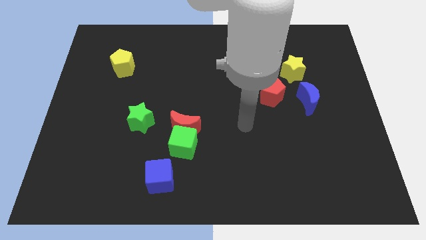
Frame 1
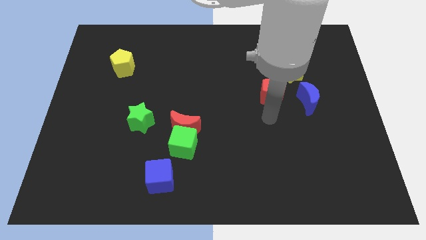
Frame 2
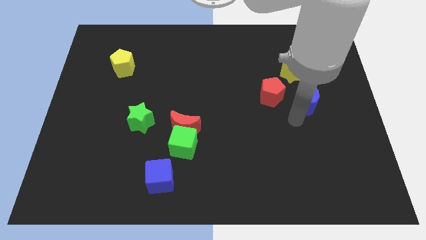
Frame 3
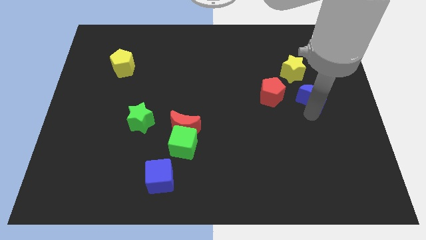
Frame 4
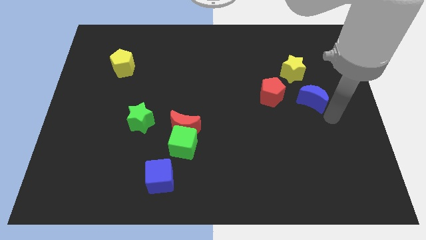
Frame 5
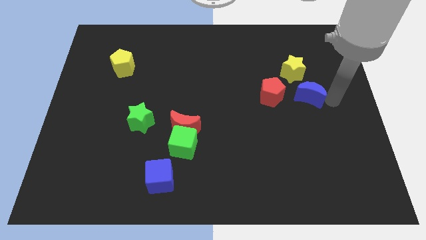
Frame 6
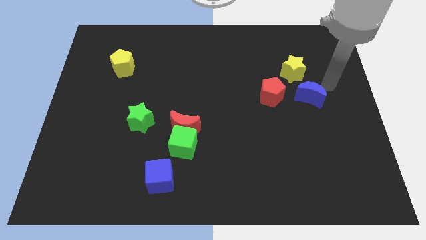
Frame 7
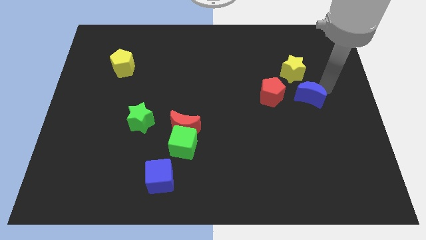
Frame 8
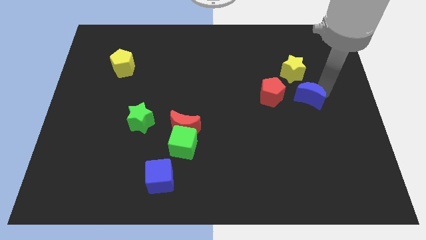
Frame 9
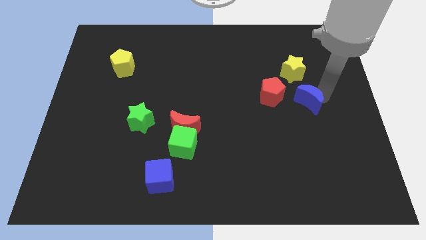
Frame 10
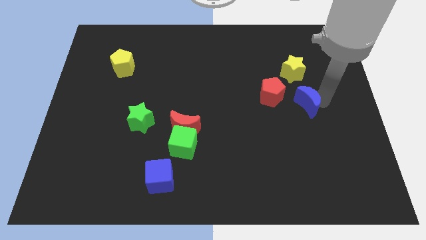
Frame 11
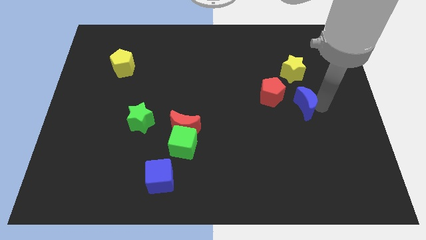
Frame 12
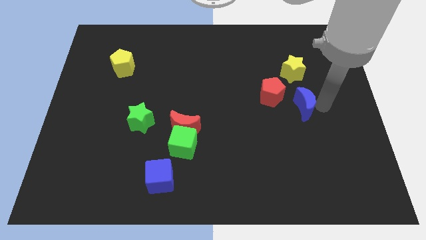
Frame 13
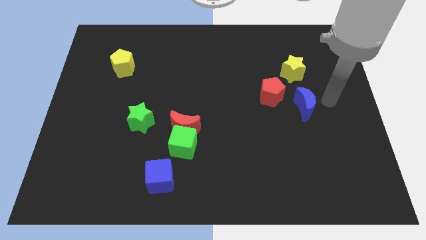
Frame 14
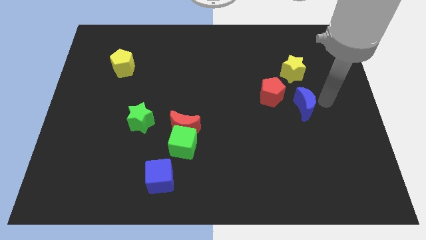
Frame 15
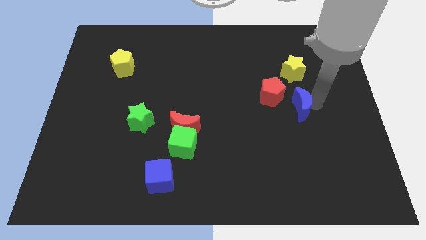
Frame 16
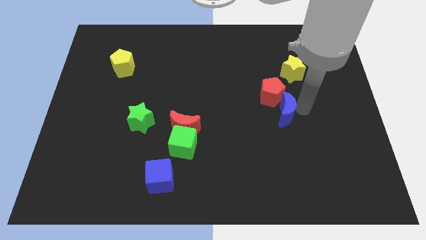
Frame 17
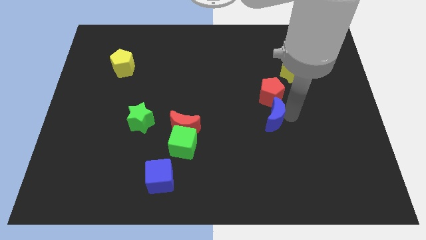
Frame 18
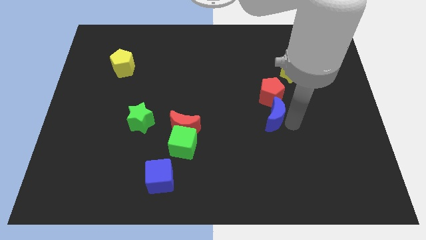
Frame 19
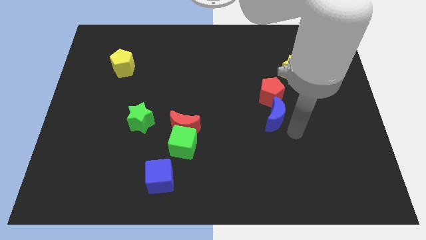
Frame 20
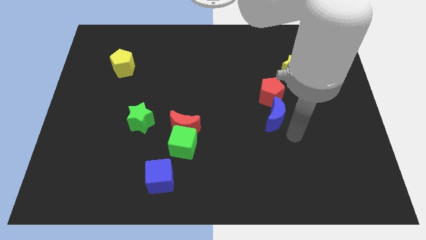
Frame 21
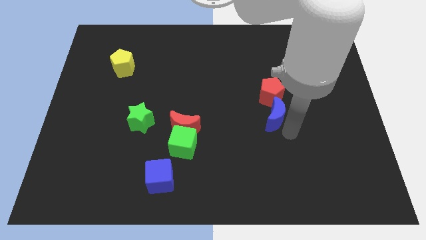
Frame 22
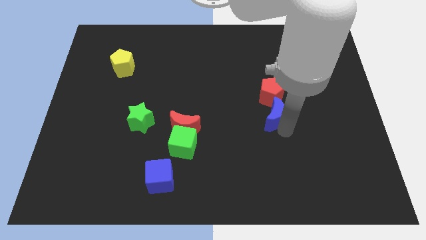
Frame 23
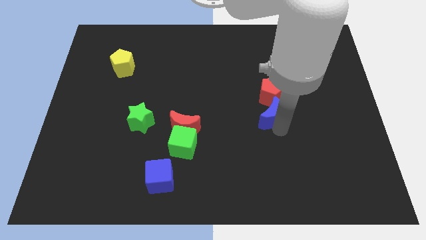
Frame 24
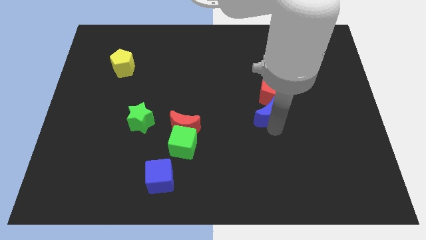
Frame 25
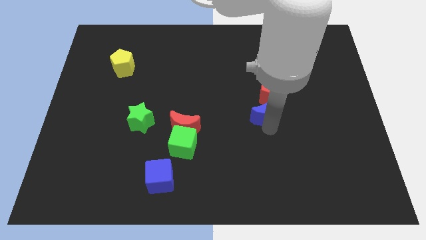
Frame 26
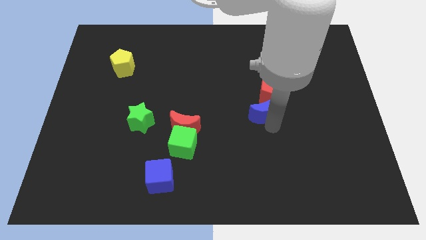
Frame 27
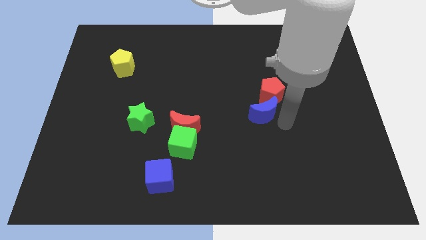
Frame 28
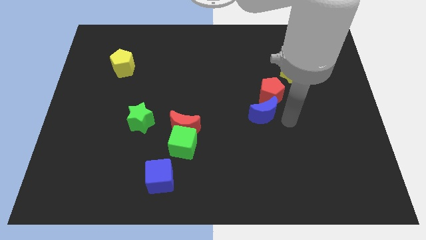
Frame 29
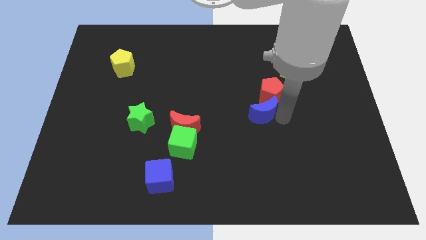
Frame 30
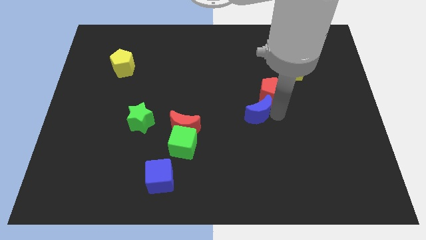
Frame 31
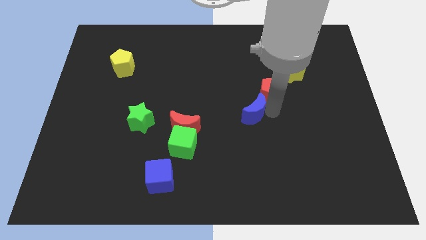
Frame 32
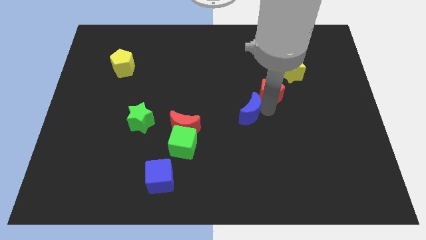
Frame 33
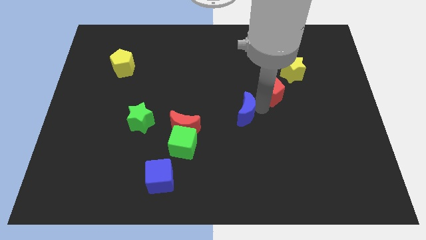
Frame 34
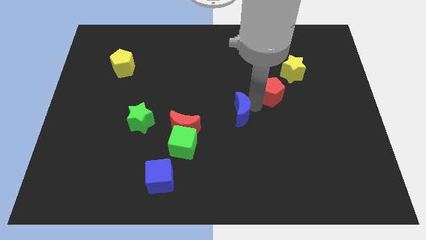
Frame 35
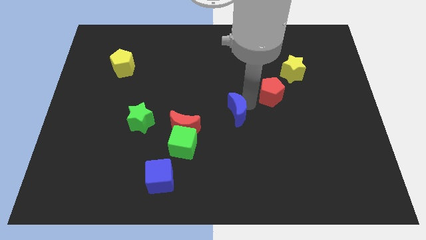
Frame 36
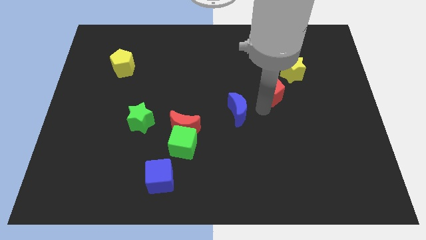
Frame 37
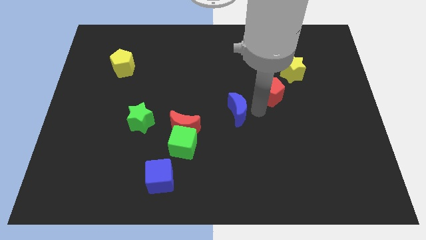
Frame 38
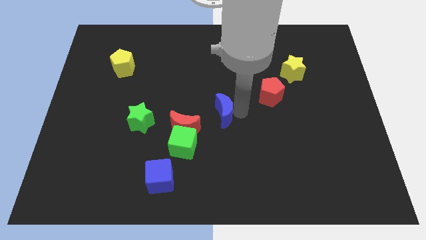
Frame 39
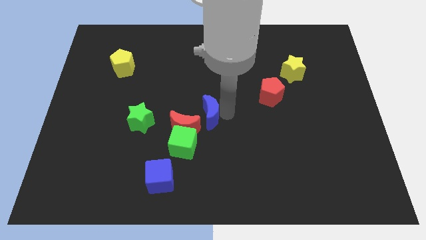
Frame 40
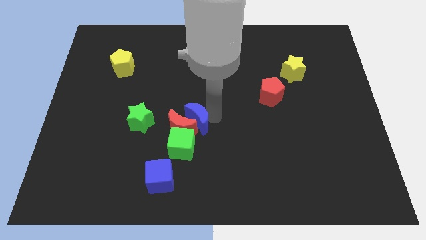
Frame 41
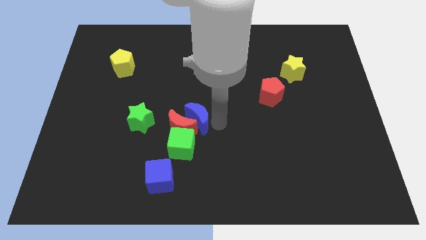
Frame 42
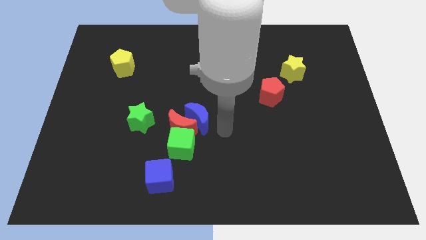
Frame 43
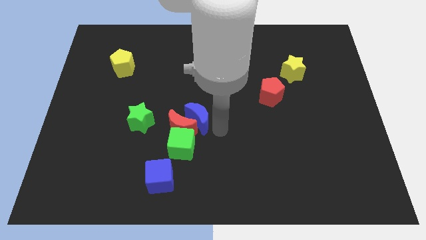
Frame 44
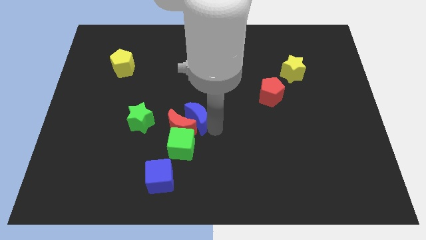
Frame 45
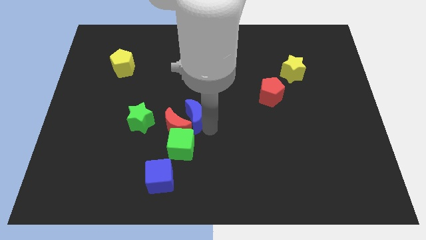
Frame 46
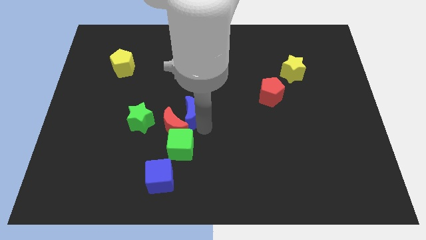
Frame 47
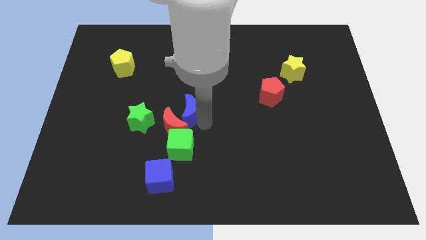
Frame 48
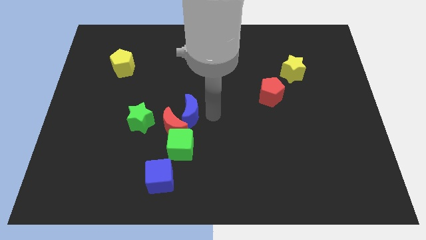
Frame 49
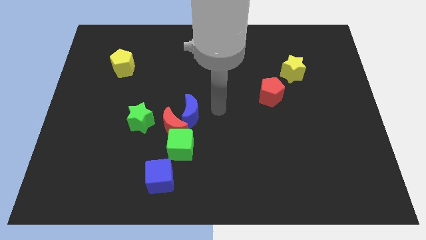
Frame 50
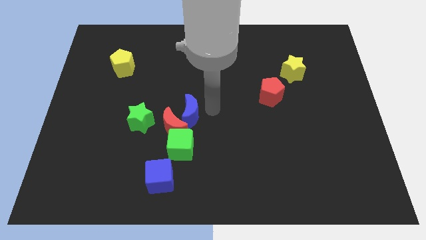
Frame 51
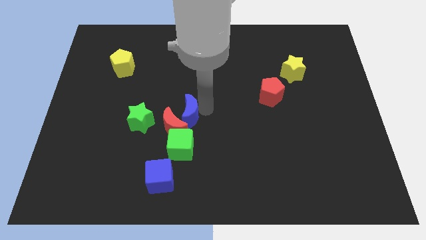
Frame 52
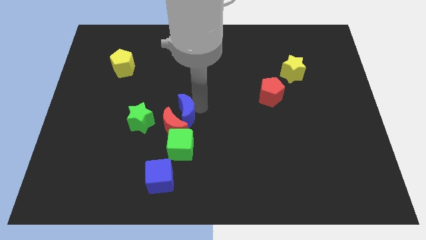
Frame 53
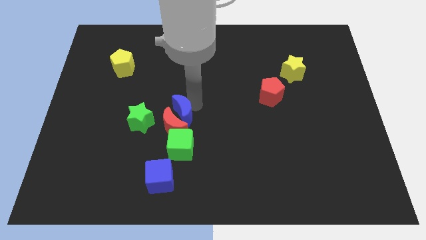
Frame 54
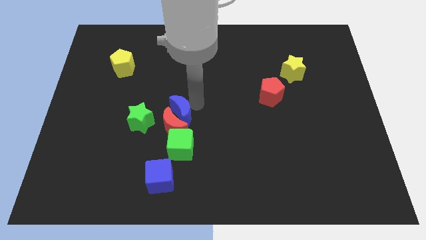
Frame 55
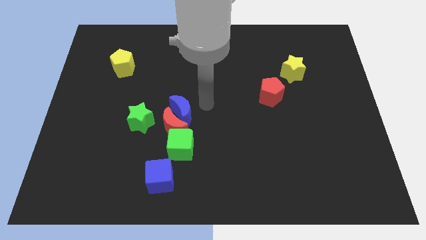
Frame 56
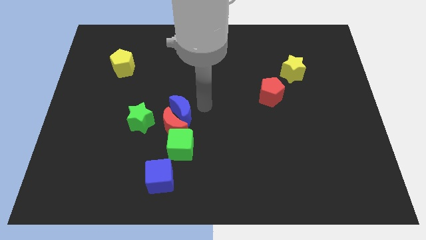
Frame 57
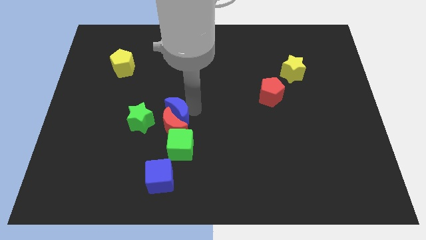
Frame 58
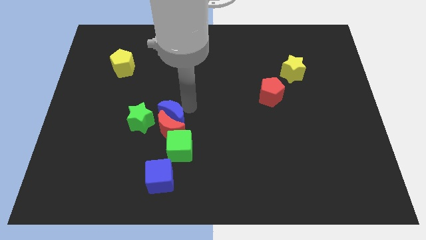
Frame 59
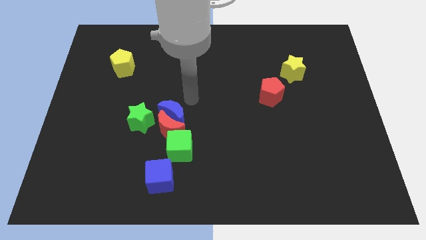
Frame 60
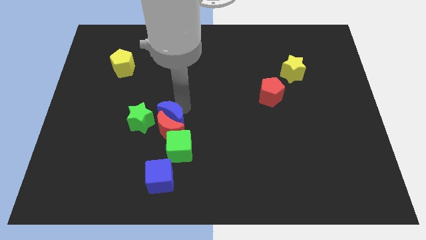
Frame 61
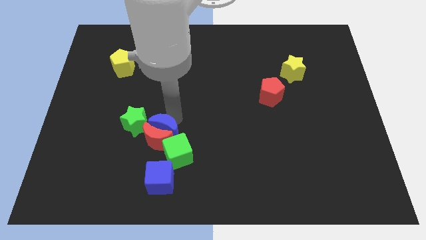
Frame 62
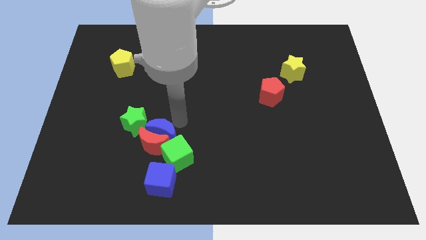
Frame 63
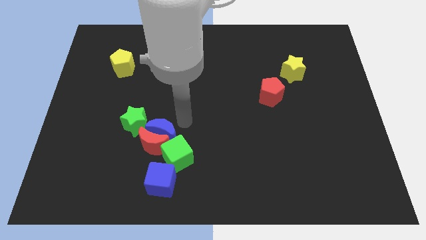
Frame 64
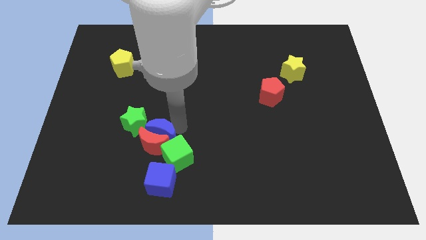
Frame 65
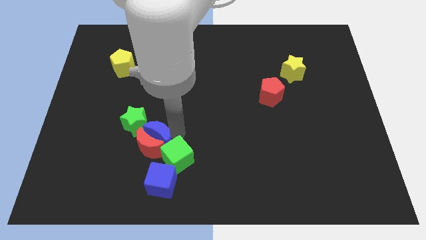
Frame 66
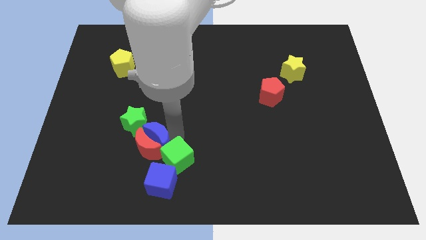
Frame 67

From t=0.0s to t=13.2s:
push the blue moon left of the green cube
